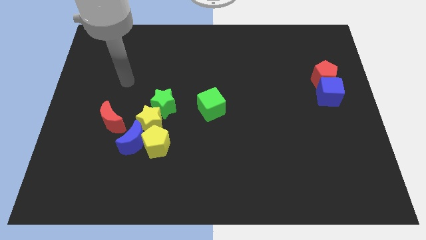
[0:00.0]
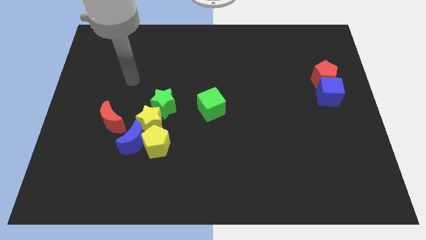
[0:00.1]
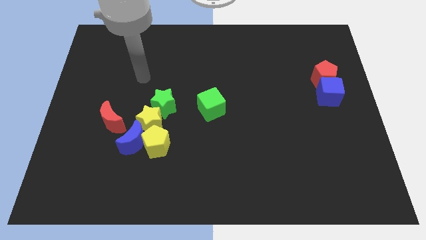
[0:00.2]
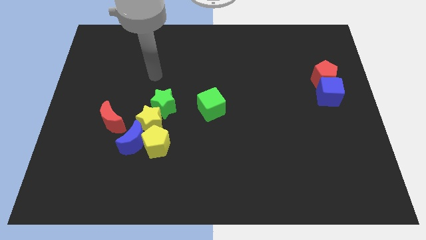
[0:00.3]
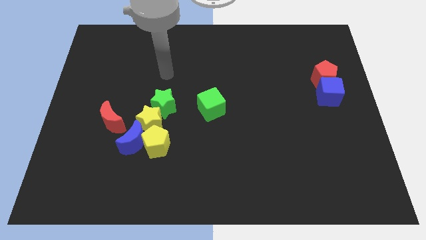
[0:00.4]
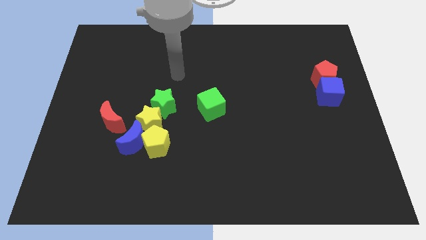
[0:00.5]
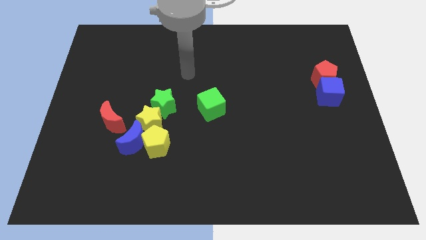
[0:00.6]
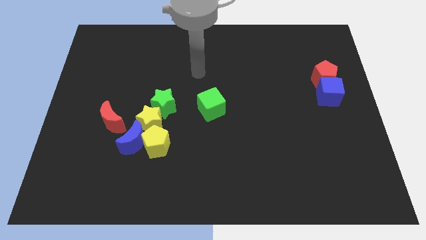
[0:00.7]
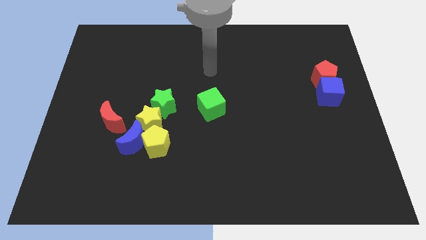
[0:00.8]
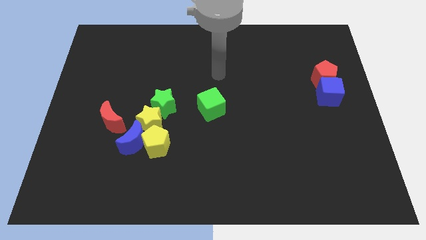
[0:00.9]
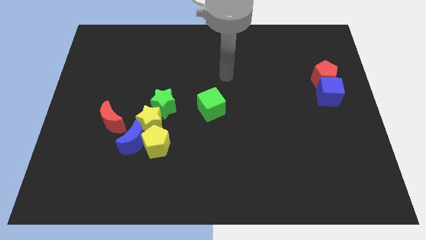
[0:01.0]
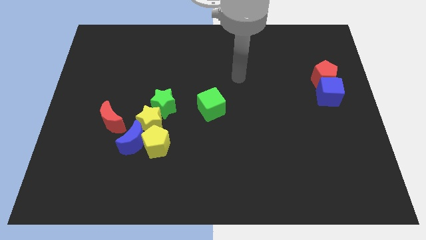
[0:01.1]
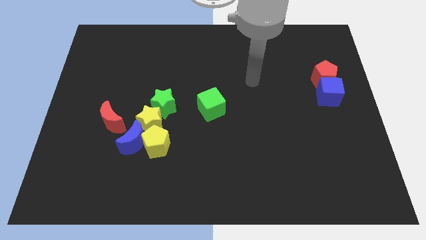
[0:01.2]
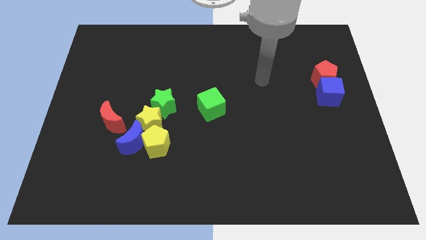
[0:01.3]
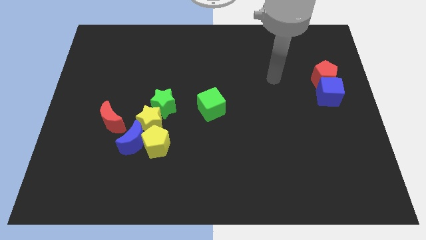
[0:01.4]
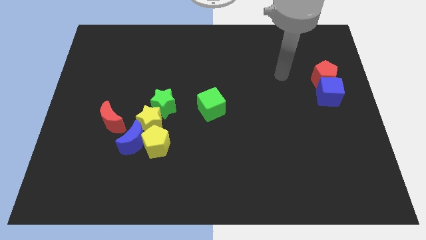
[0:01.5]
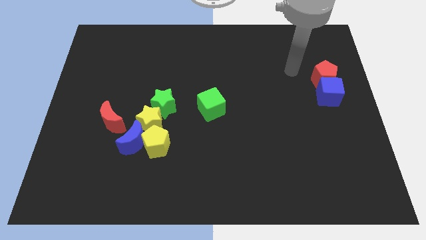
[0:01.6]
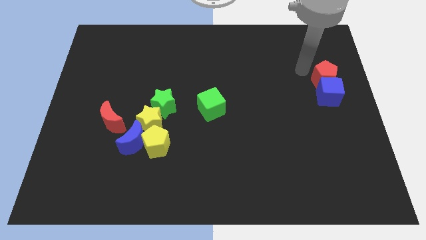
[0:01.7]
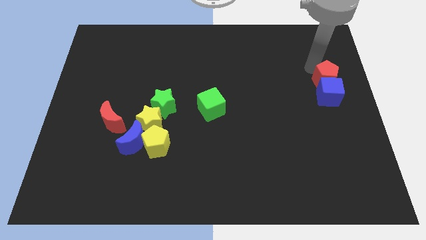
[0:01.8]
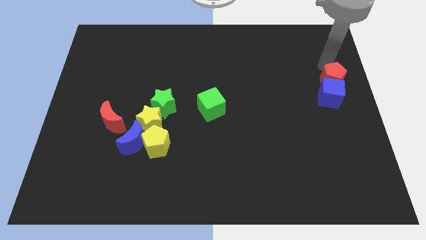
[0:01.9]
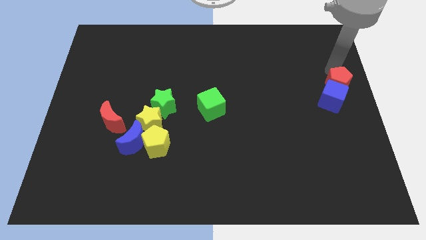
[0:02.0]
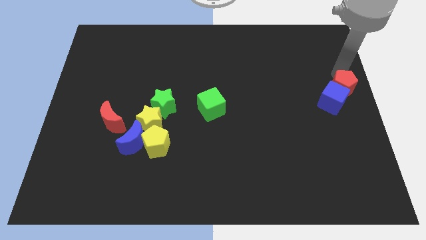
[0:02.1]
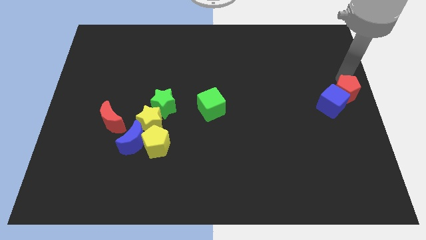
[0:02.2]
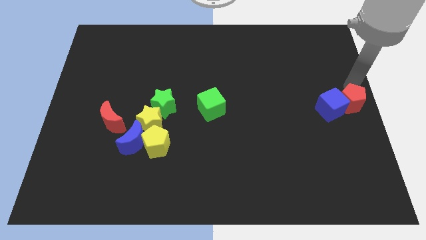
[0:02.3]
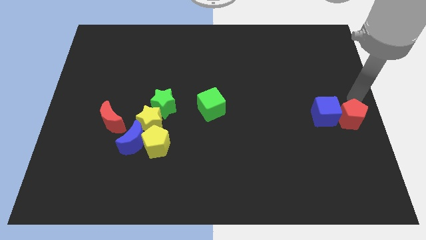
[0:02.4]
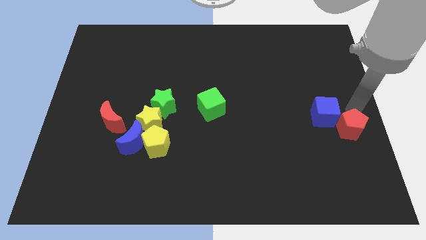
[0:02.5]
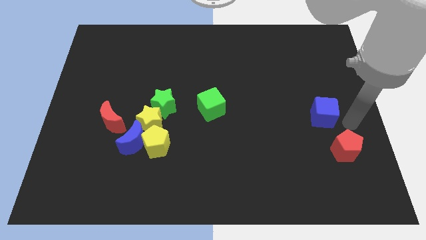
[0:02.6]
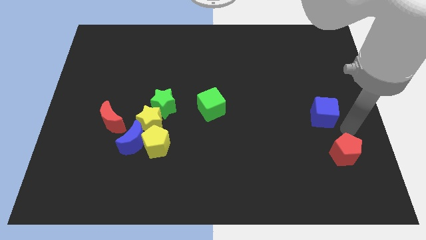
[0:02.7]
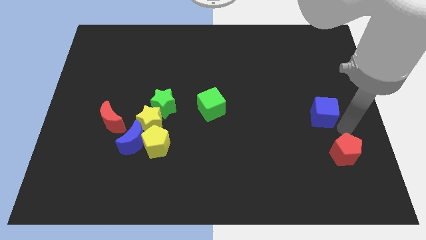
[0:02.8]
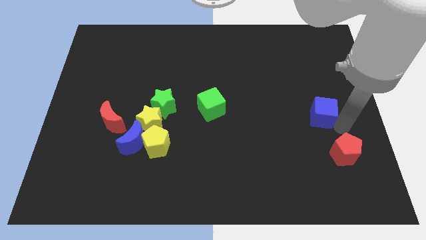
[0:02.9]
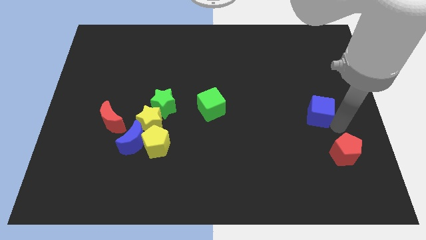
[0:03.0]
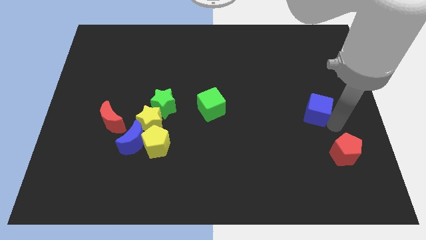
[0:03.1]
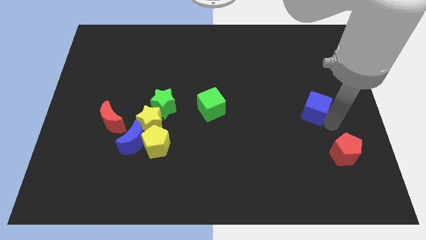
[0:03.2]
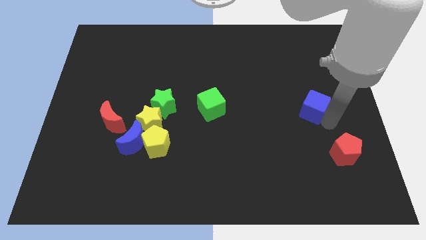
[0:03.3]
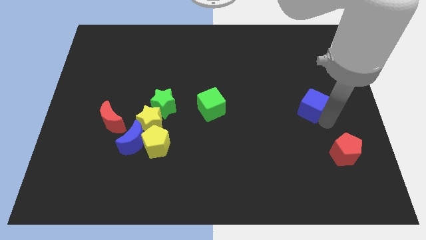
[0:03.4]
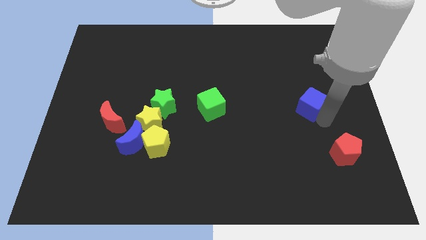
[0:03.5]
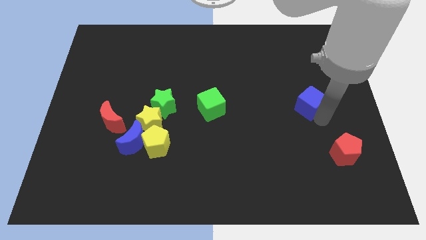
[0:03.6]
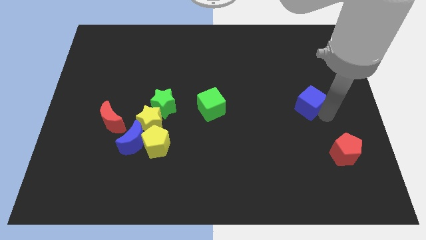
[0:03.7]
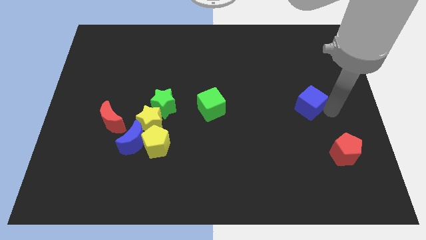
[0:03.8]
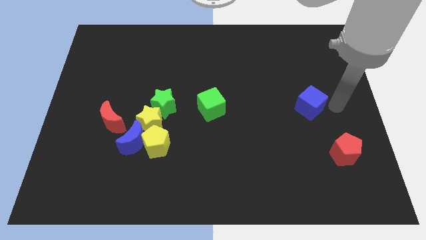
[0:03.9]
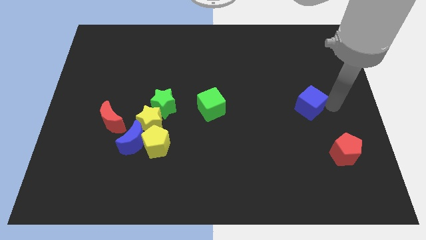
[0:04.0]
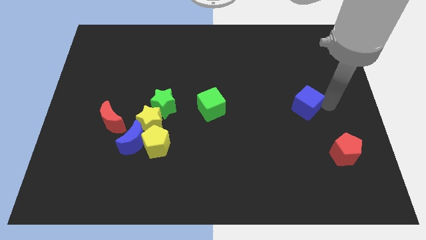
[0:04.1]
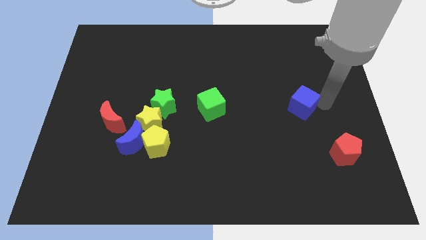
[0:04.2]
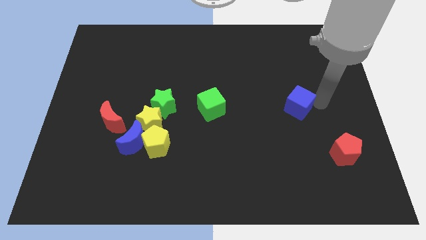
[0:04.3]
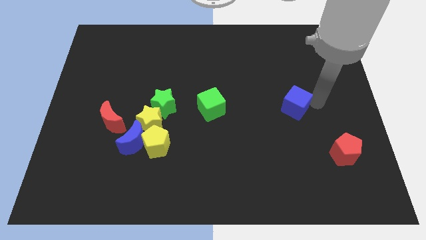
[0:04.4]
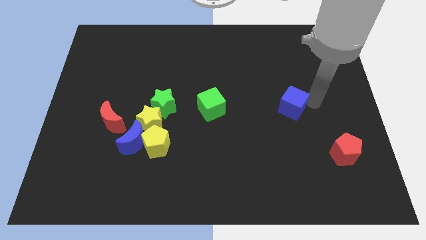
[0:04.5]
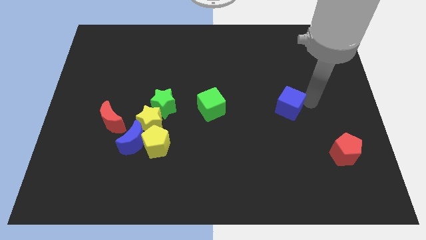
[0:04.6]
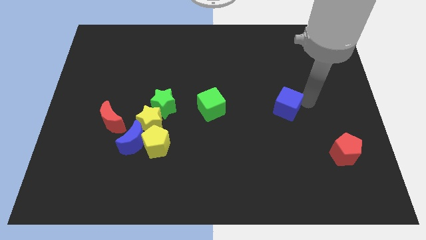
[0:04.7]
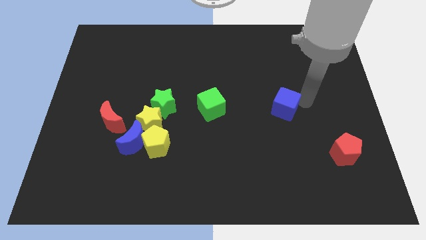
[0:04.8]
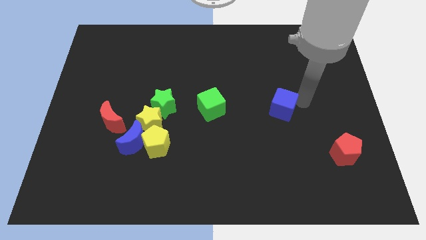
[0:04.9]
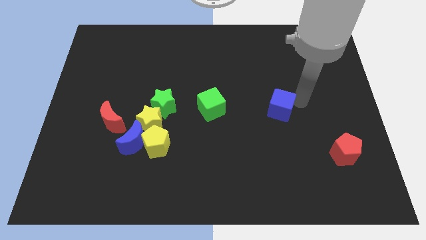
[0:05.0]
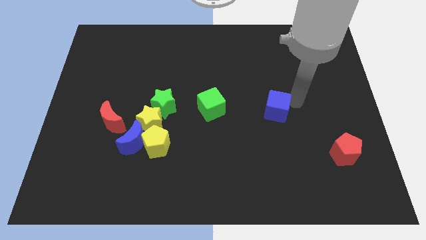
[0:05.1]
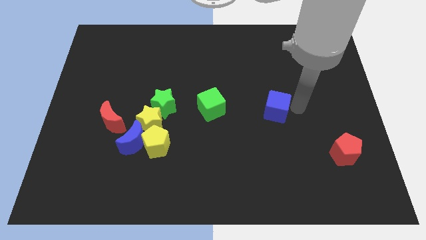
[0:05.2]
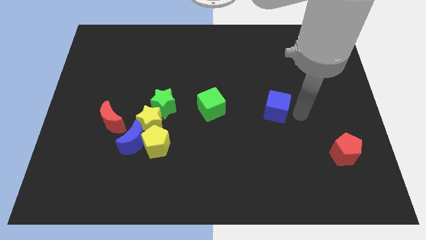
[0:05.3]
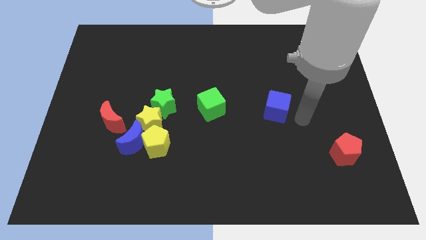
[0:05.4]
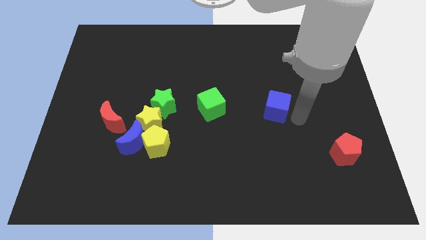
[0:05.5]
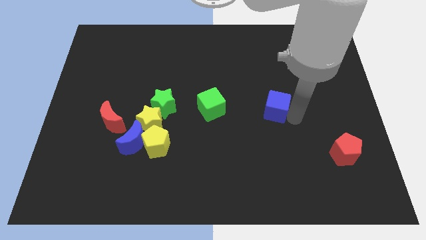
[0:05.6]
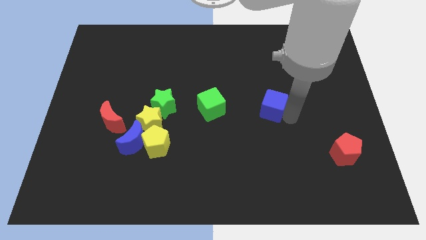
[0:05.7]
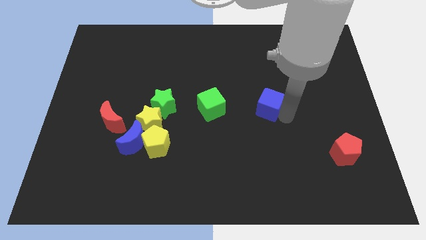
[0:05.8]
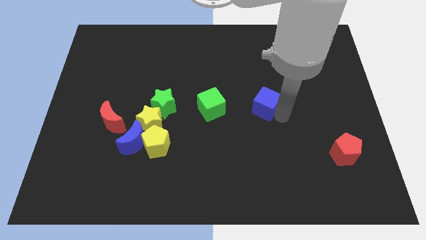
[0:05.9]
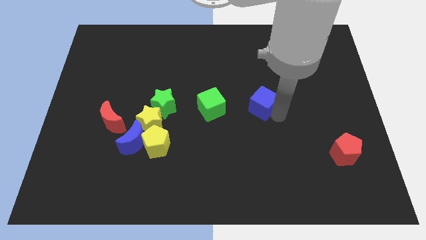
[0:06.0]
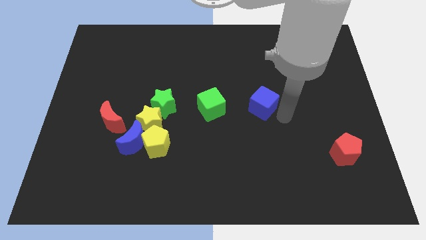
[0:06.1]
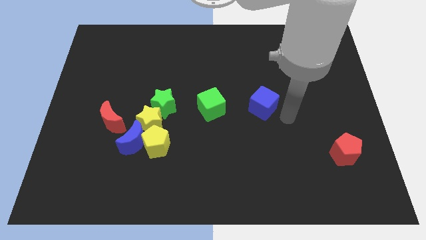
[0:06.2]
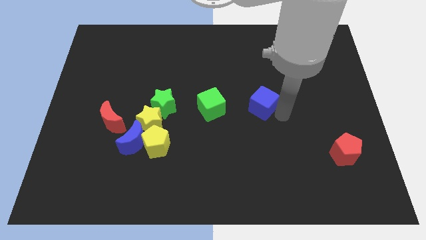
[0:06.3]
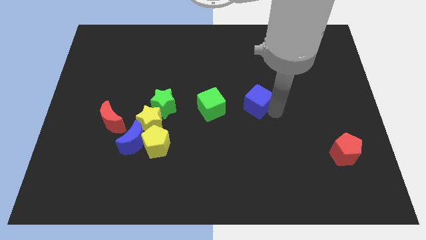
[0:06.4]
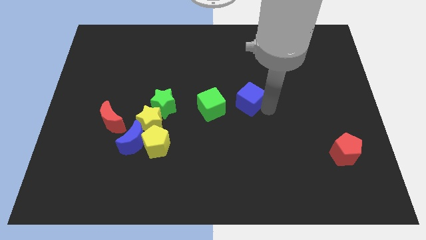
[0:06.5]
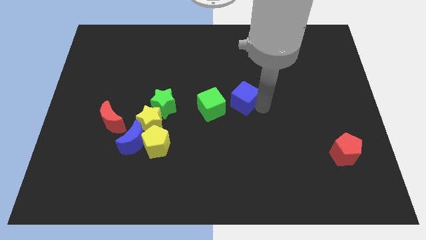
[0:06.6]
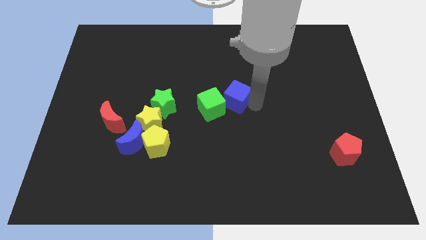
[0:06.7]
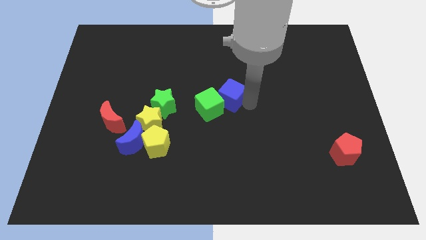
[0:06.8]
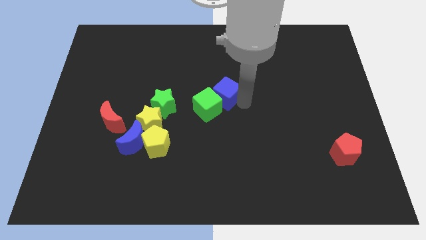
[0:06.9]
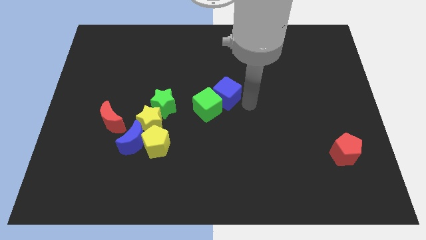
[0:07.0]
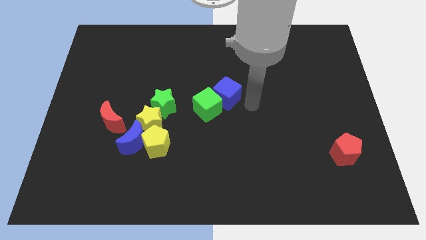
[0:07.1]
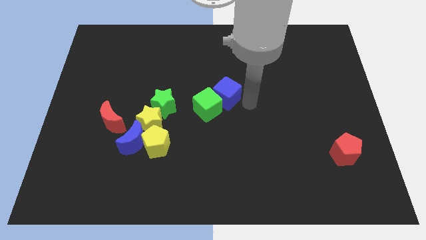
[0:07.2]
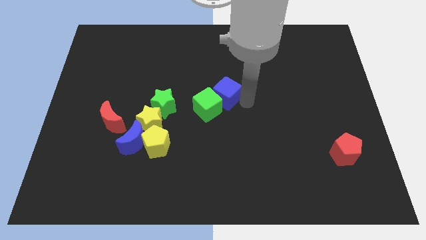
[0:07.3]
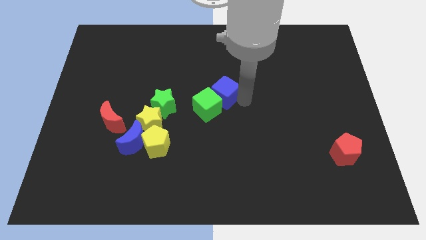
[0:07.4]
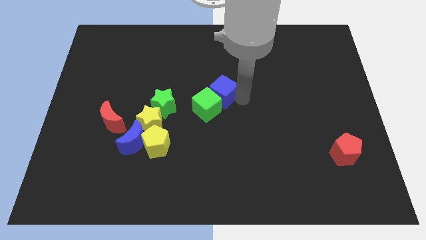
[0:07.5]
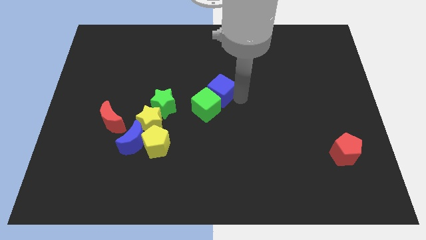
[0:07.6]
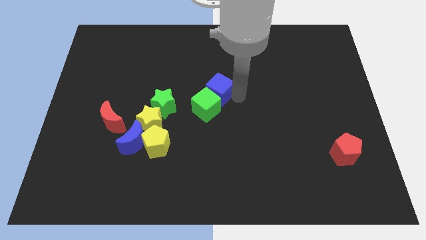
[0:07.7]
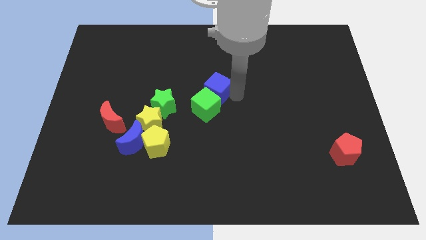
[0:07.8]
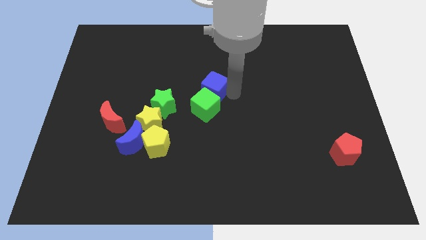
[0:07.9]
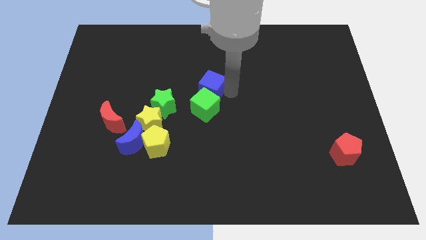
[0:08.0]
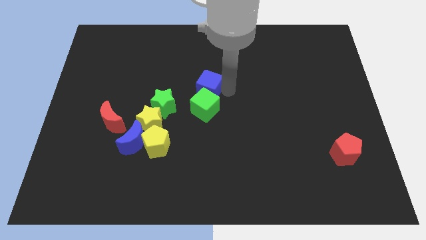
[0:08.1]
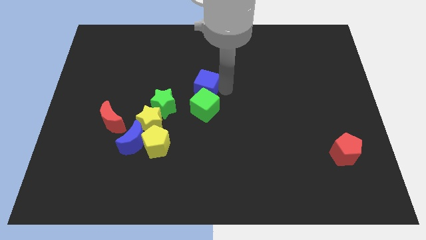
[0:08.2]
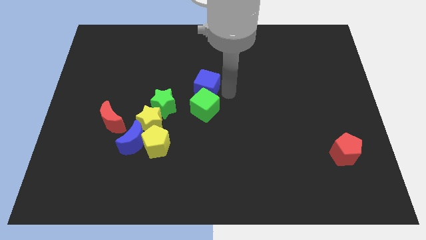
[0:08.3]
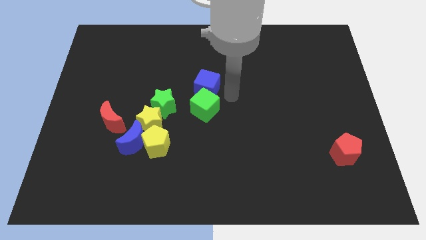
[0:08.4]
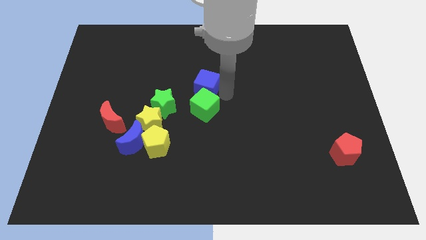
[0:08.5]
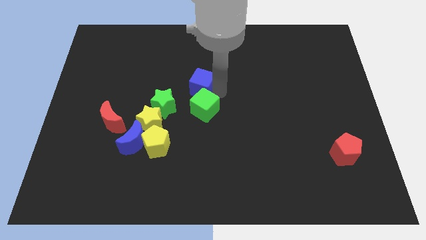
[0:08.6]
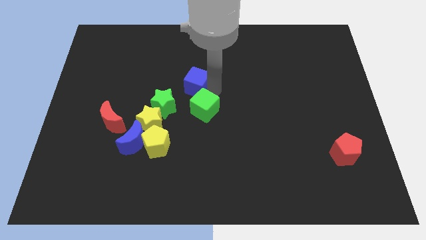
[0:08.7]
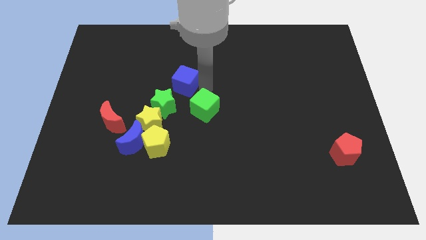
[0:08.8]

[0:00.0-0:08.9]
slide the blue cube above the green star
